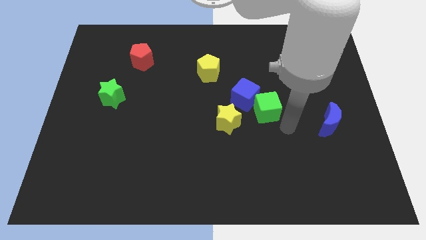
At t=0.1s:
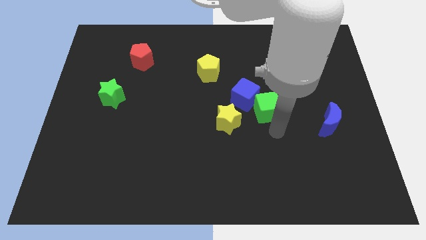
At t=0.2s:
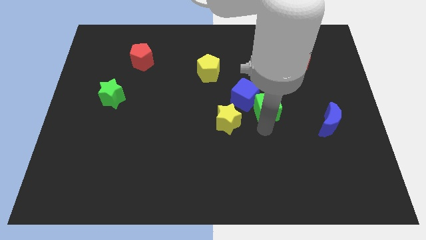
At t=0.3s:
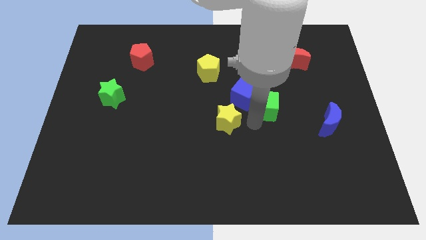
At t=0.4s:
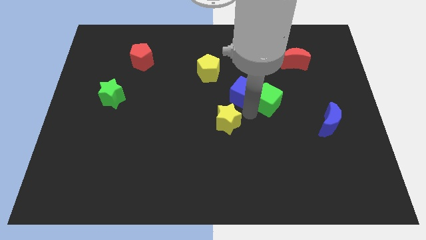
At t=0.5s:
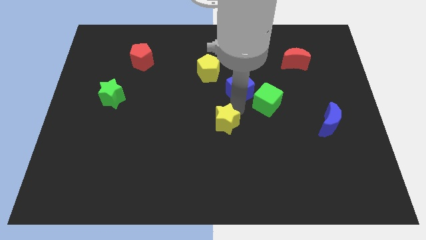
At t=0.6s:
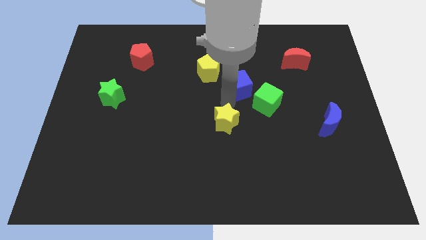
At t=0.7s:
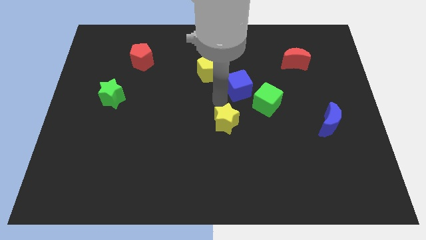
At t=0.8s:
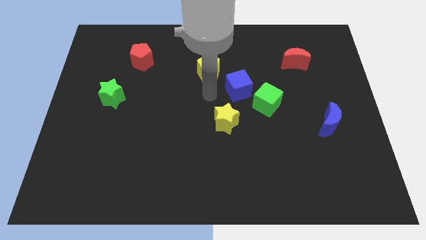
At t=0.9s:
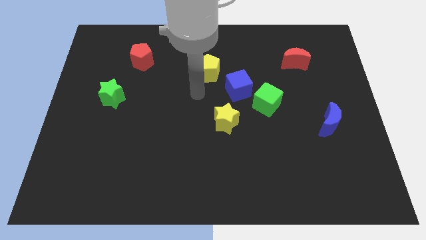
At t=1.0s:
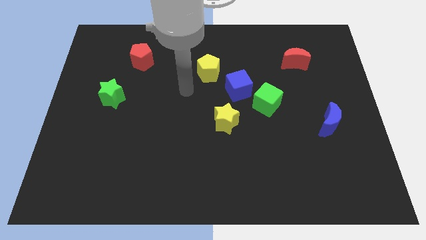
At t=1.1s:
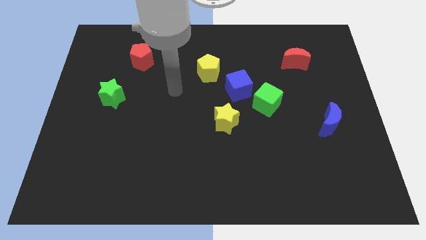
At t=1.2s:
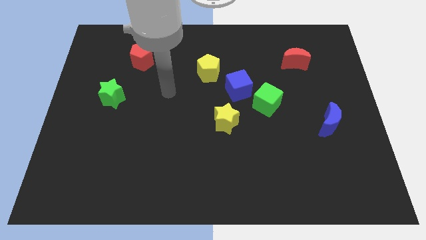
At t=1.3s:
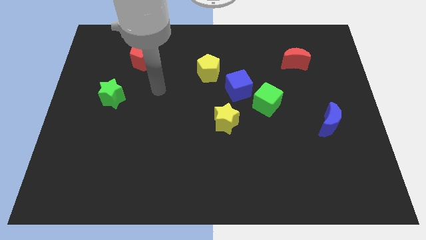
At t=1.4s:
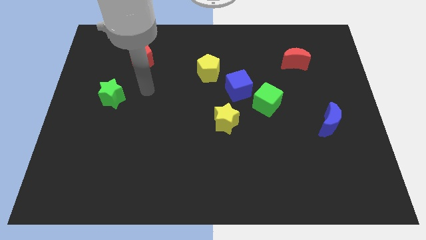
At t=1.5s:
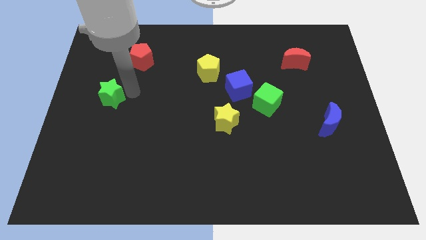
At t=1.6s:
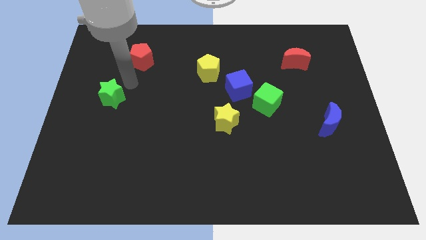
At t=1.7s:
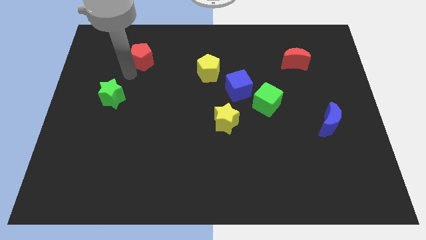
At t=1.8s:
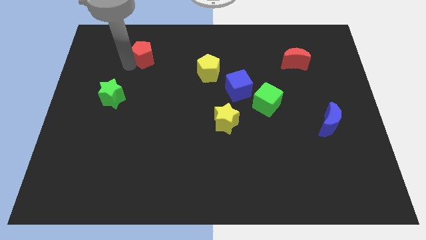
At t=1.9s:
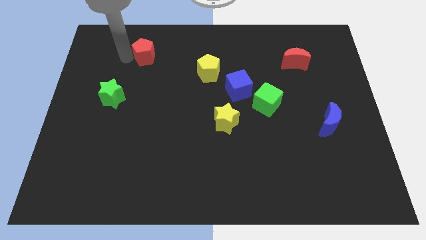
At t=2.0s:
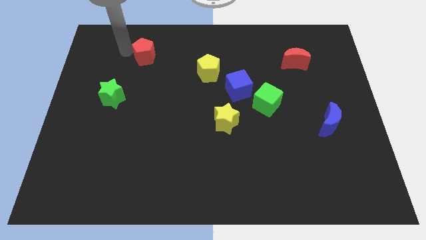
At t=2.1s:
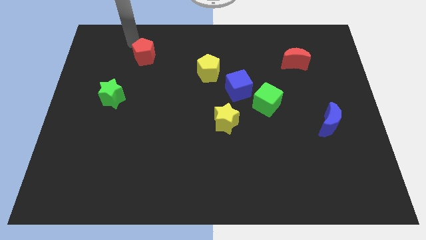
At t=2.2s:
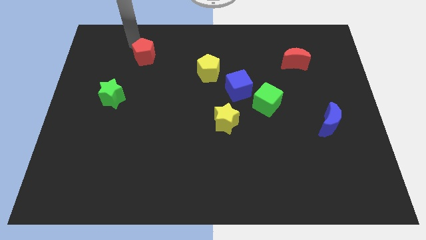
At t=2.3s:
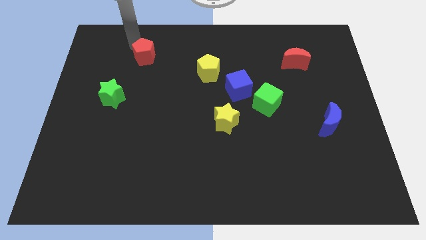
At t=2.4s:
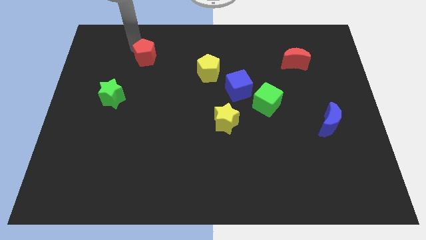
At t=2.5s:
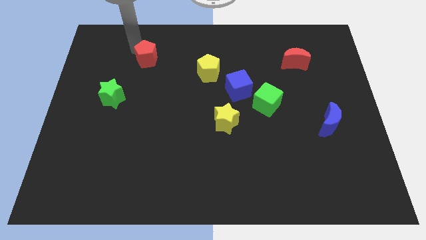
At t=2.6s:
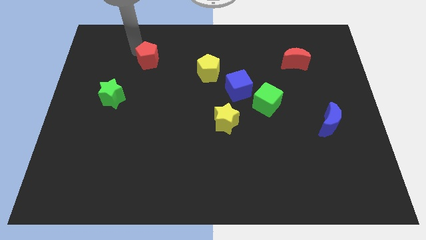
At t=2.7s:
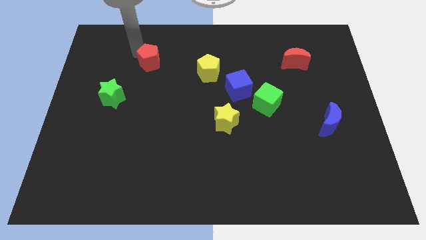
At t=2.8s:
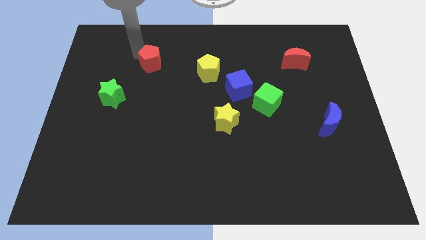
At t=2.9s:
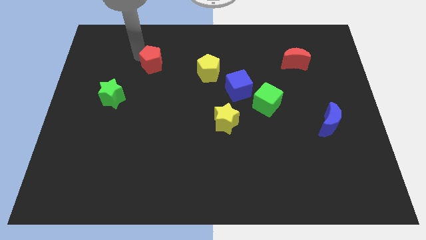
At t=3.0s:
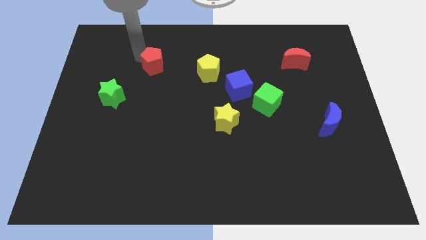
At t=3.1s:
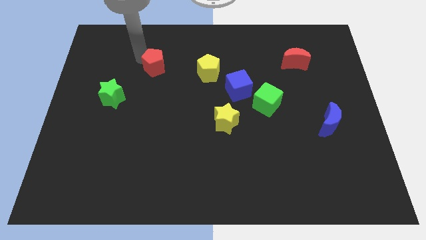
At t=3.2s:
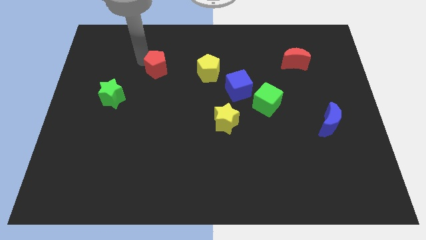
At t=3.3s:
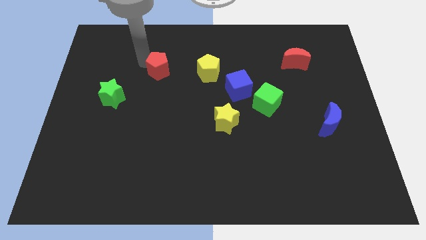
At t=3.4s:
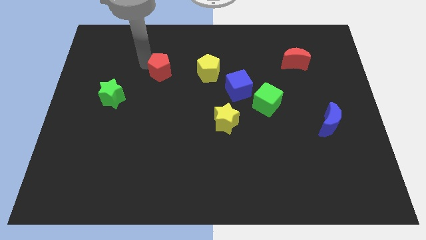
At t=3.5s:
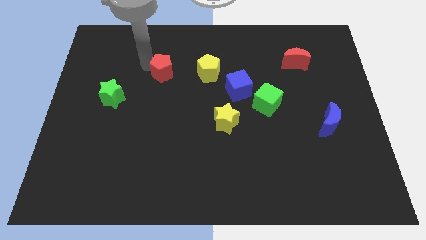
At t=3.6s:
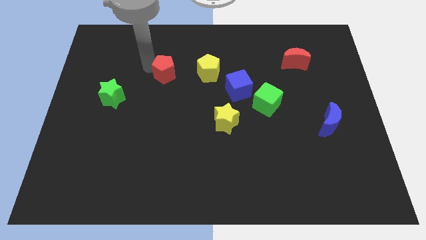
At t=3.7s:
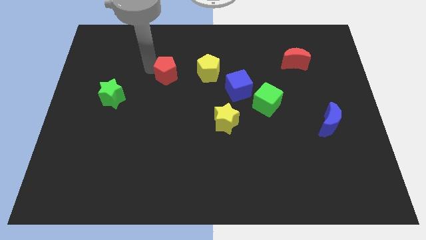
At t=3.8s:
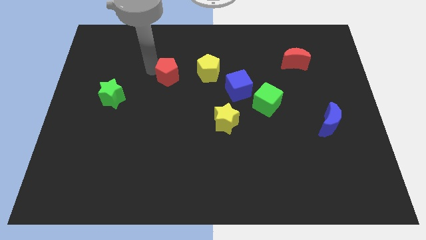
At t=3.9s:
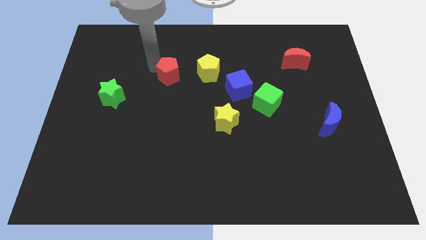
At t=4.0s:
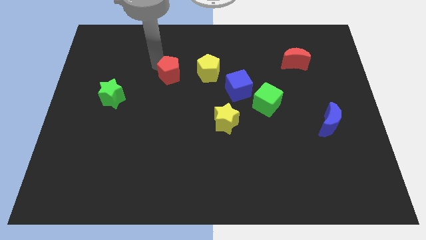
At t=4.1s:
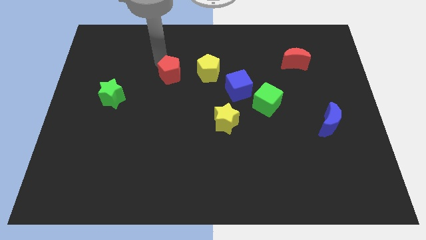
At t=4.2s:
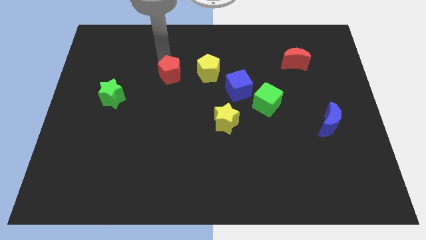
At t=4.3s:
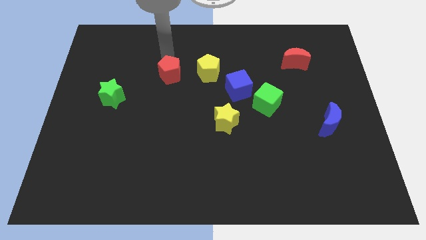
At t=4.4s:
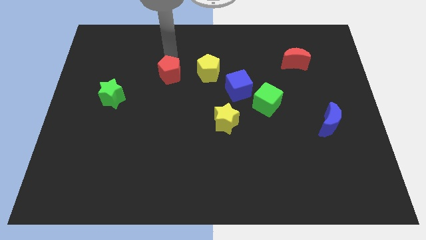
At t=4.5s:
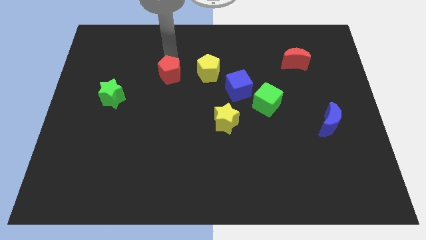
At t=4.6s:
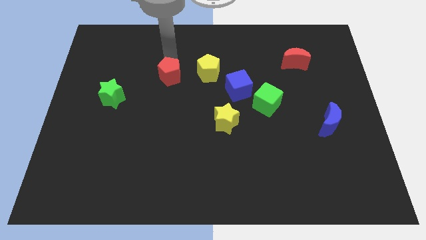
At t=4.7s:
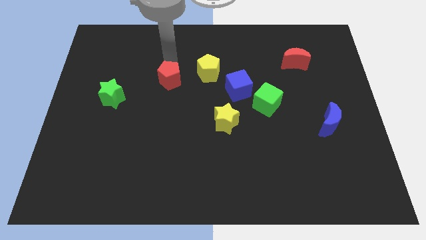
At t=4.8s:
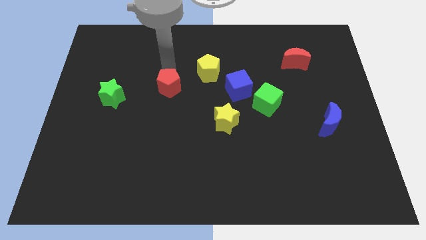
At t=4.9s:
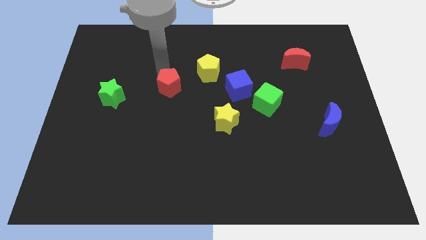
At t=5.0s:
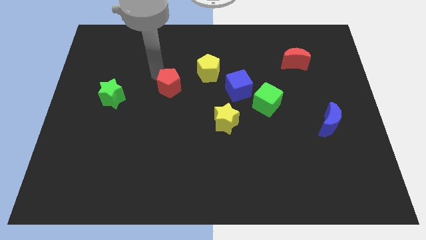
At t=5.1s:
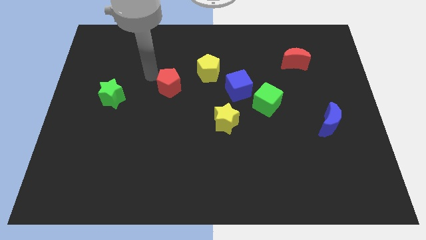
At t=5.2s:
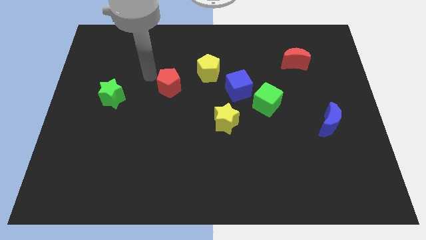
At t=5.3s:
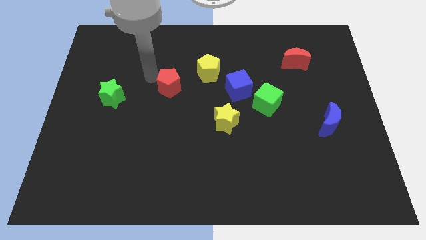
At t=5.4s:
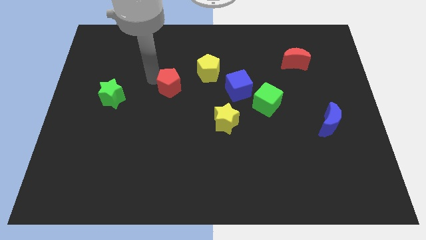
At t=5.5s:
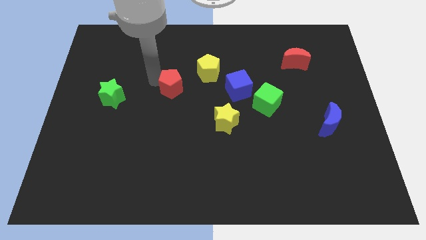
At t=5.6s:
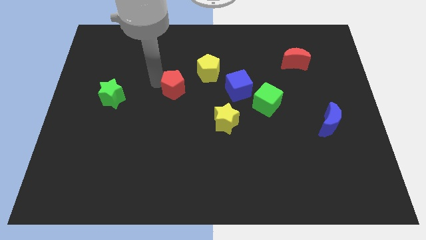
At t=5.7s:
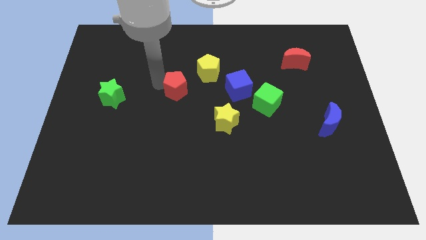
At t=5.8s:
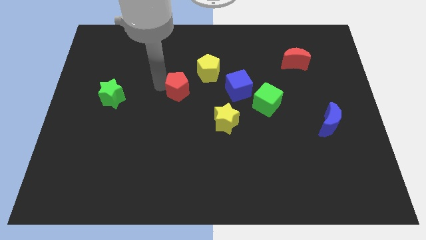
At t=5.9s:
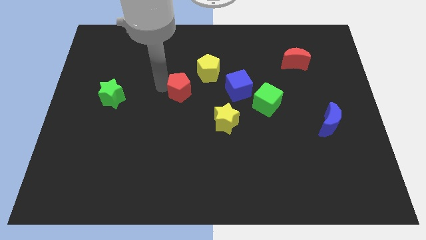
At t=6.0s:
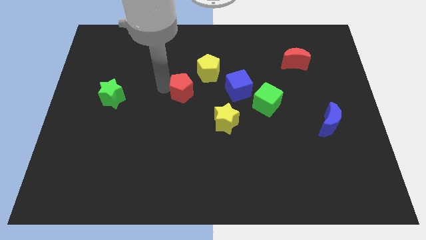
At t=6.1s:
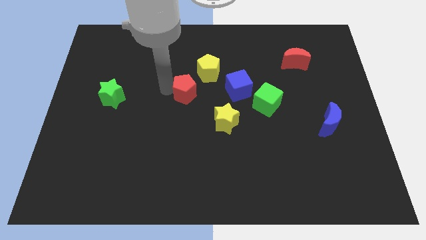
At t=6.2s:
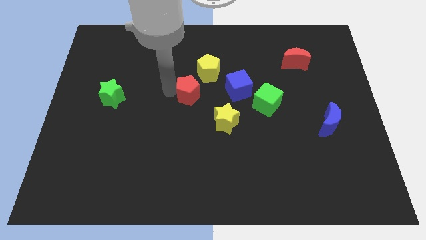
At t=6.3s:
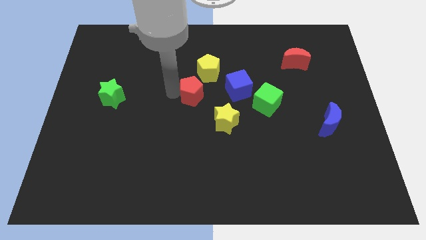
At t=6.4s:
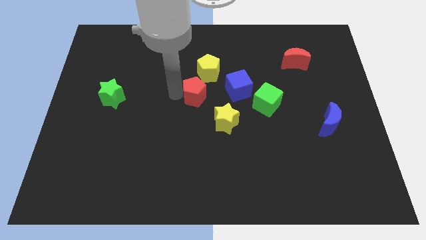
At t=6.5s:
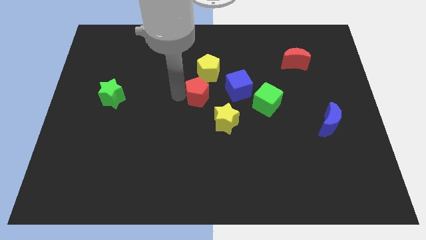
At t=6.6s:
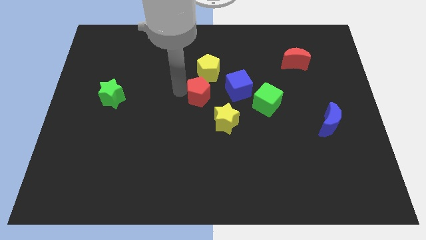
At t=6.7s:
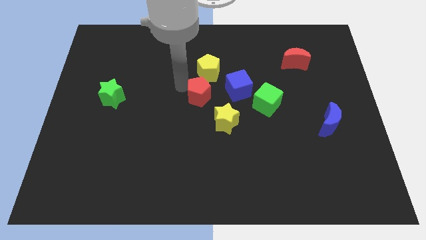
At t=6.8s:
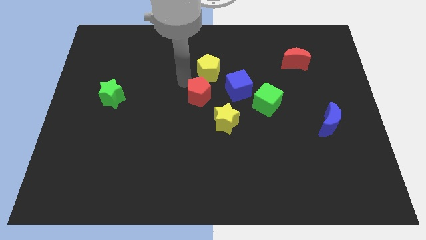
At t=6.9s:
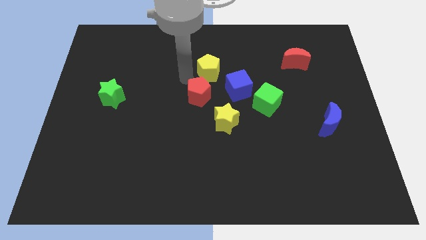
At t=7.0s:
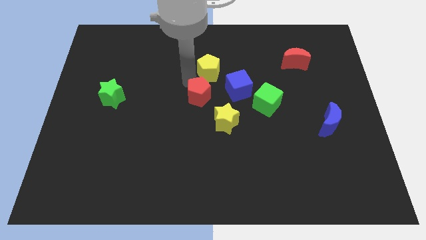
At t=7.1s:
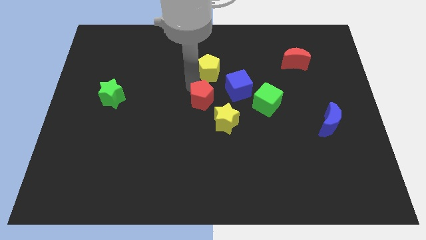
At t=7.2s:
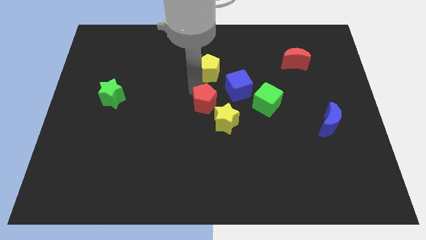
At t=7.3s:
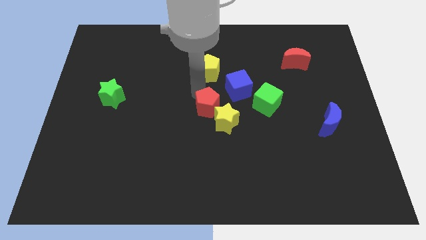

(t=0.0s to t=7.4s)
slide the red pentagon next to the yellow star
